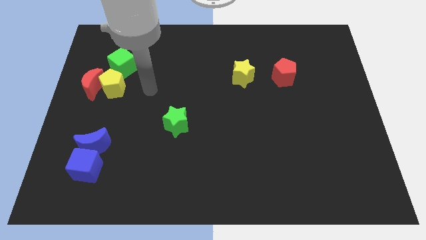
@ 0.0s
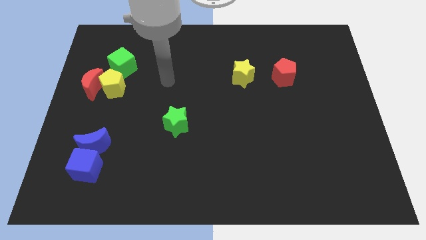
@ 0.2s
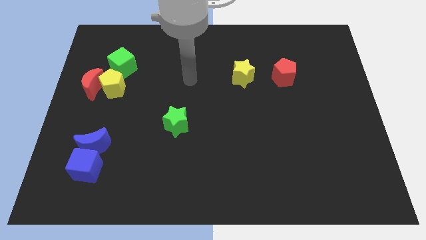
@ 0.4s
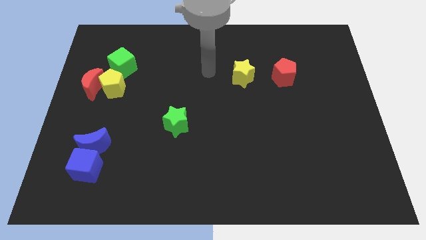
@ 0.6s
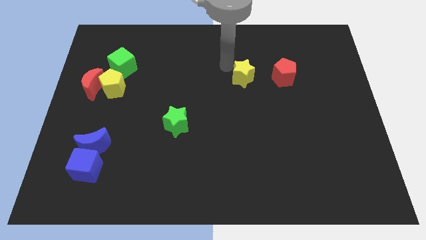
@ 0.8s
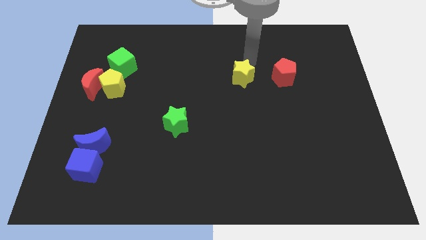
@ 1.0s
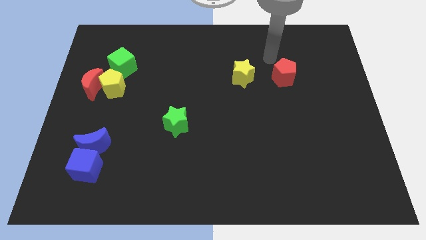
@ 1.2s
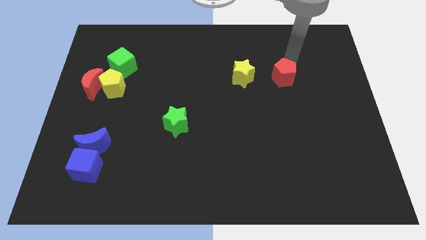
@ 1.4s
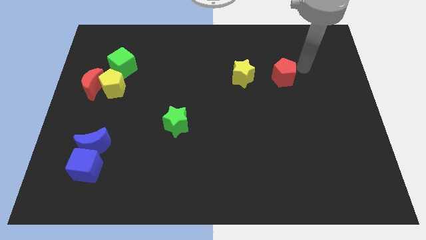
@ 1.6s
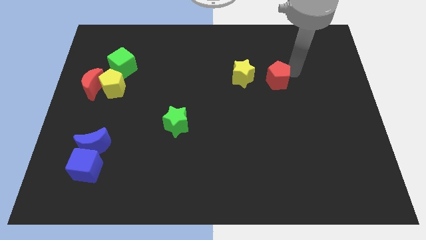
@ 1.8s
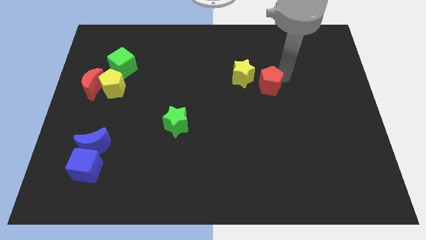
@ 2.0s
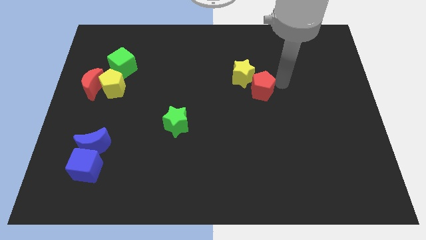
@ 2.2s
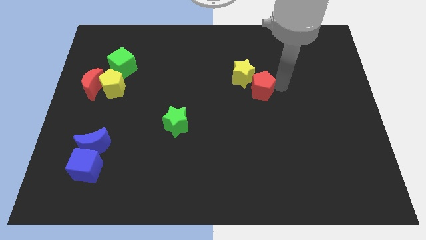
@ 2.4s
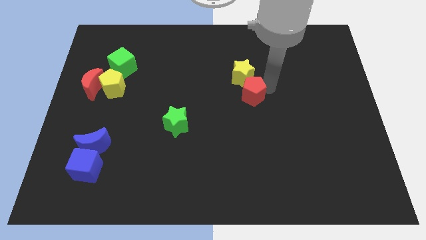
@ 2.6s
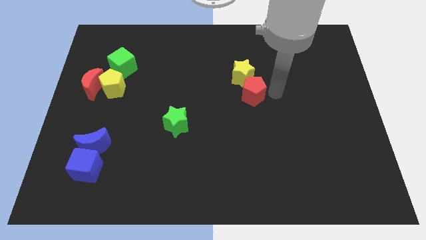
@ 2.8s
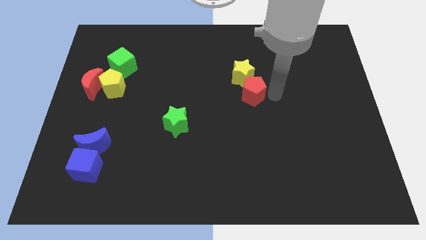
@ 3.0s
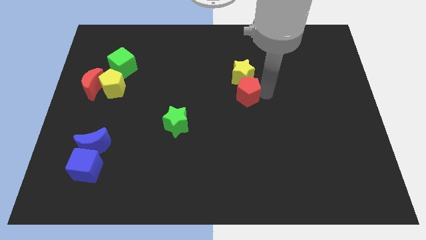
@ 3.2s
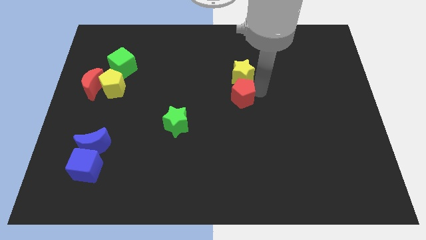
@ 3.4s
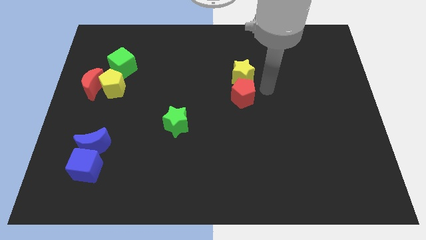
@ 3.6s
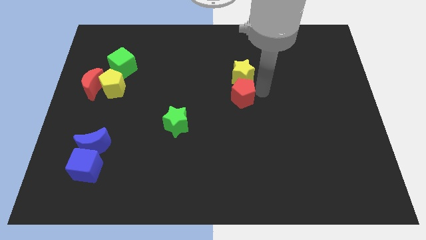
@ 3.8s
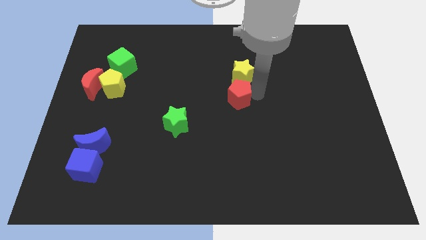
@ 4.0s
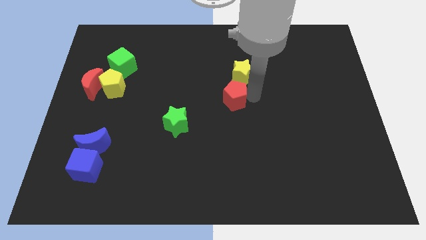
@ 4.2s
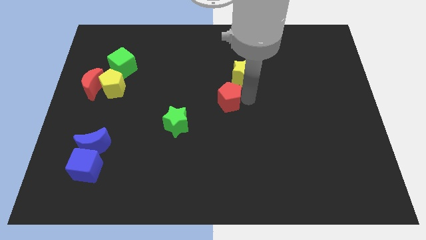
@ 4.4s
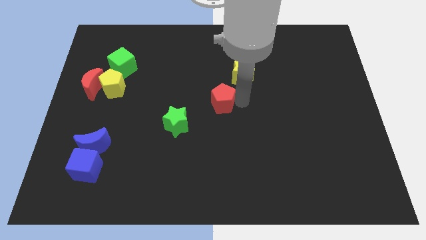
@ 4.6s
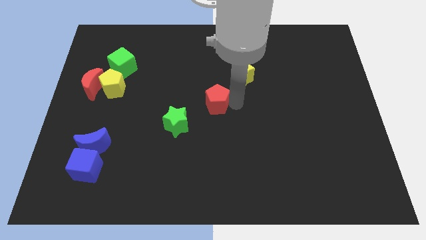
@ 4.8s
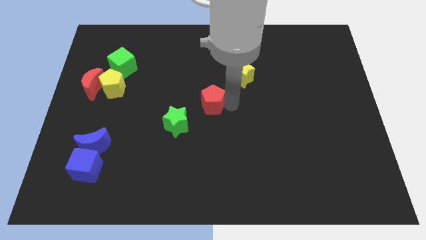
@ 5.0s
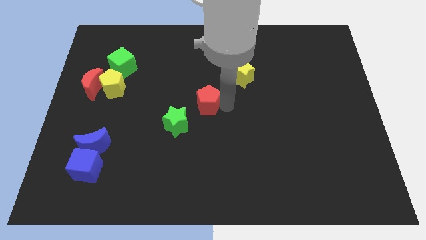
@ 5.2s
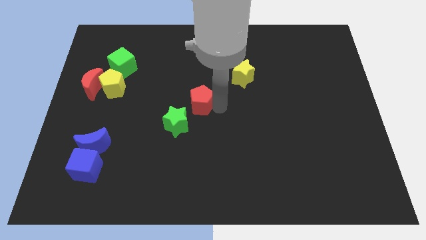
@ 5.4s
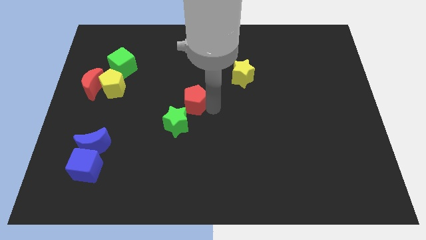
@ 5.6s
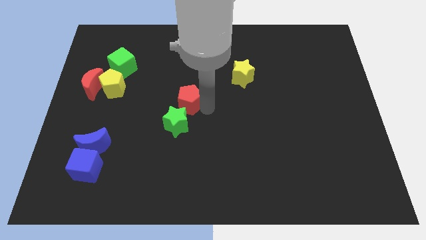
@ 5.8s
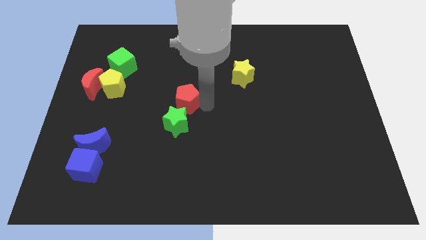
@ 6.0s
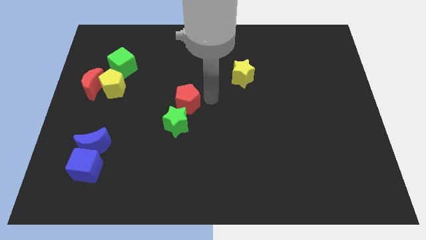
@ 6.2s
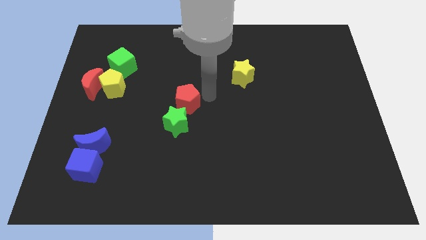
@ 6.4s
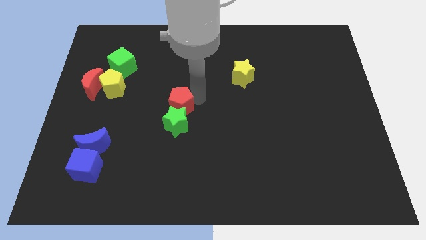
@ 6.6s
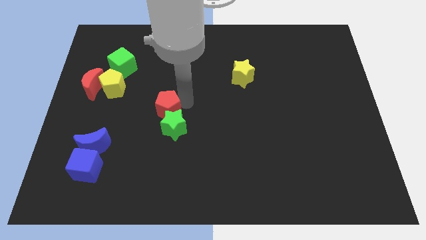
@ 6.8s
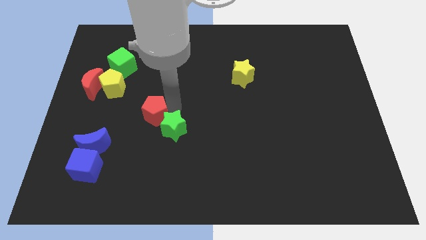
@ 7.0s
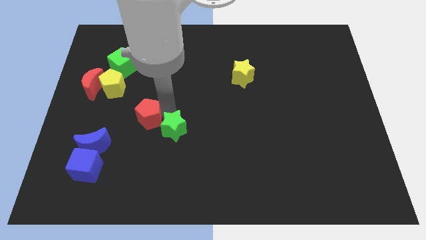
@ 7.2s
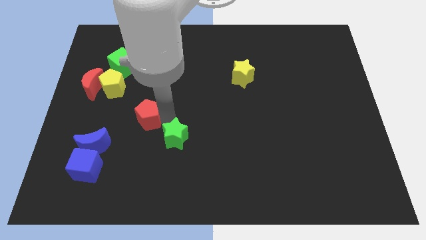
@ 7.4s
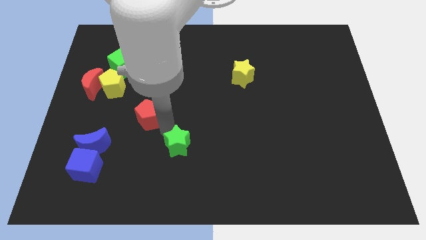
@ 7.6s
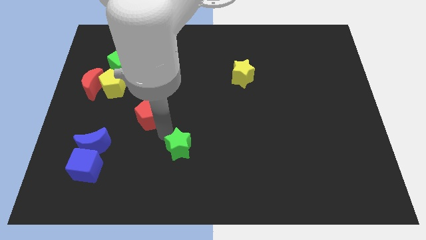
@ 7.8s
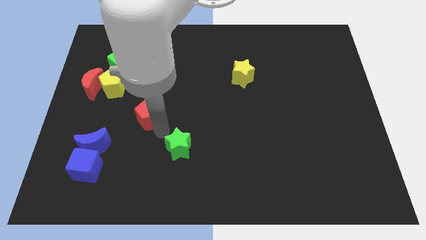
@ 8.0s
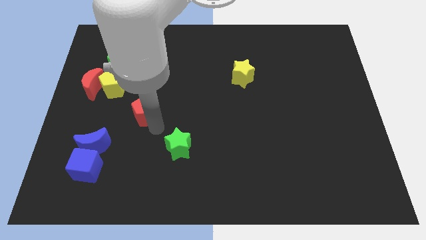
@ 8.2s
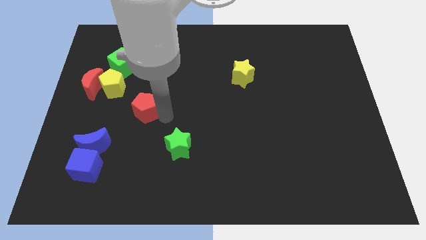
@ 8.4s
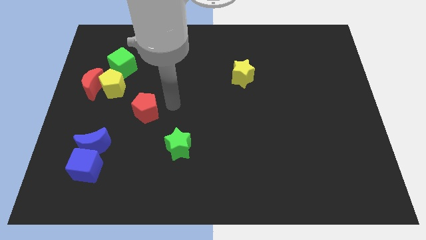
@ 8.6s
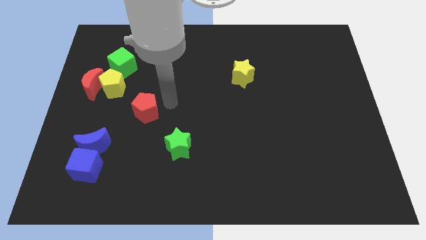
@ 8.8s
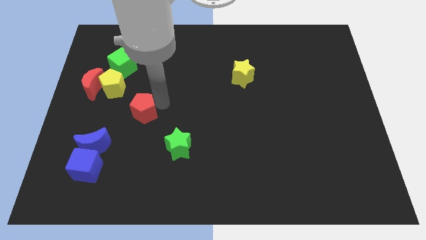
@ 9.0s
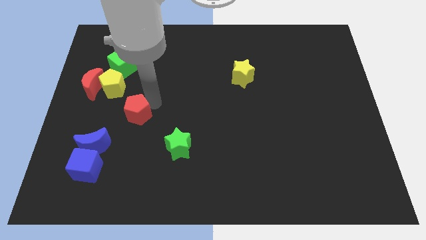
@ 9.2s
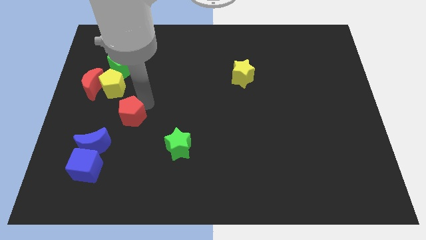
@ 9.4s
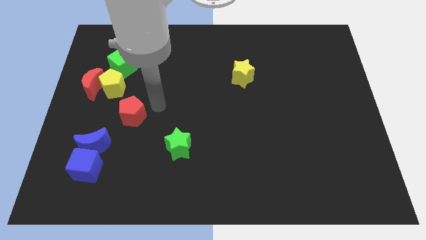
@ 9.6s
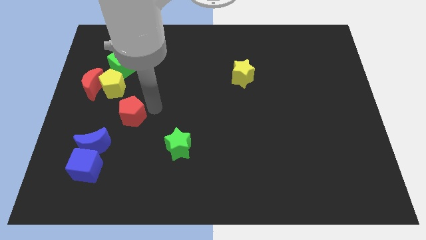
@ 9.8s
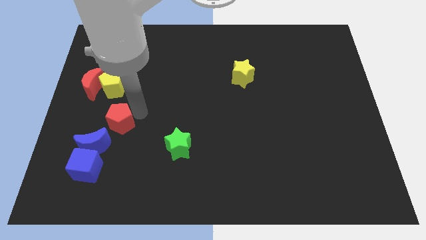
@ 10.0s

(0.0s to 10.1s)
push the red pentagon to the bottom of the yellow pentagon

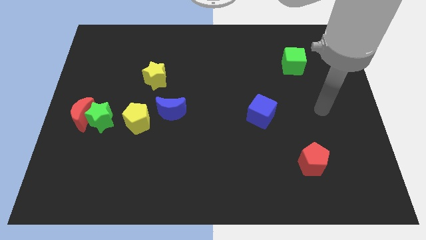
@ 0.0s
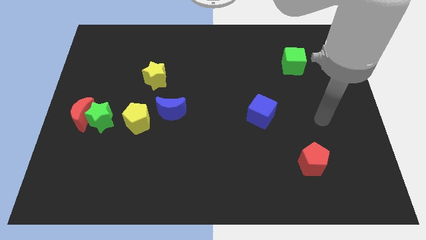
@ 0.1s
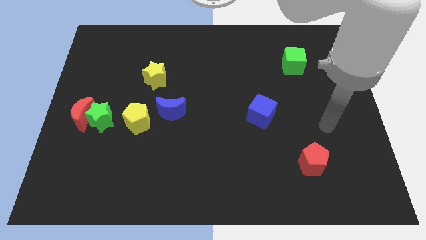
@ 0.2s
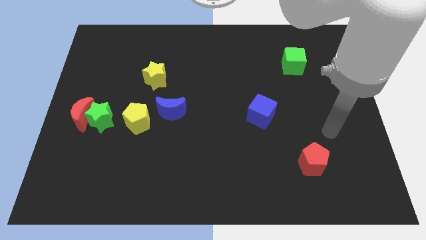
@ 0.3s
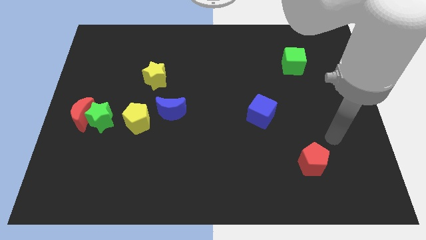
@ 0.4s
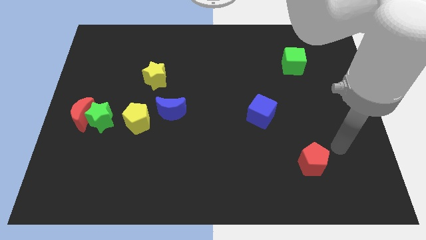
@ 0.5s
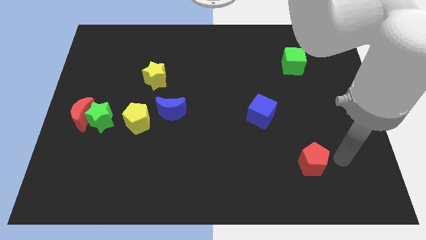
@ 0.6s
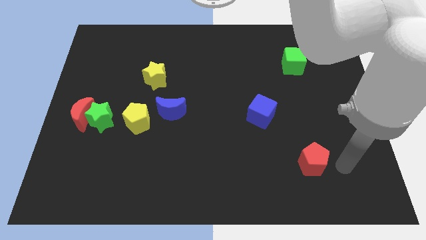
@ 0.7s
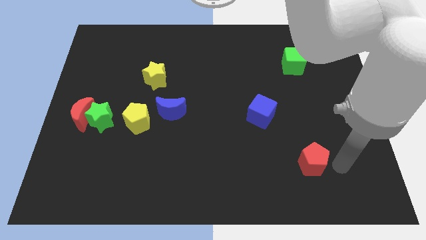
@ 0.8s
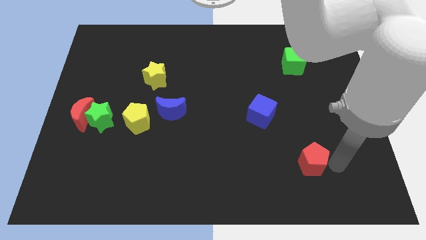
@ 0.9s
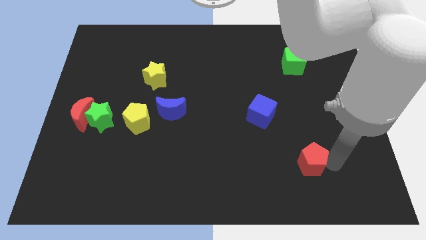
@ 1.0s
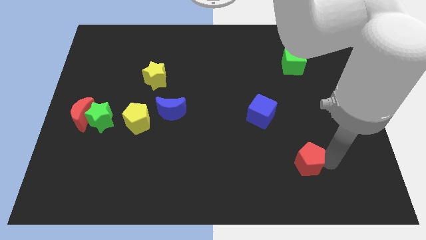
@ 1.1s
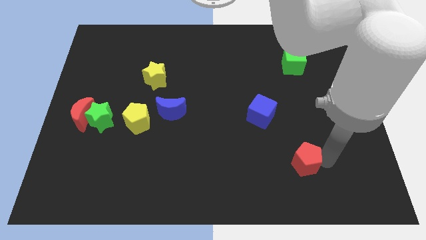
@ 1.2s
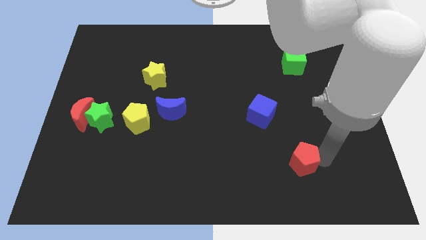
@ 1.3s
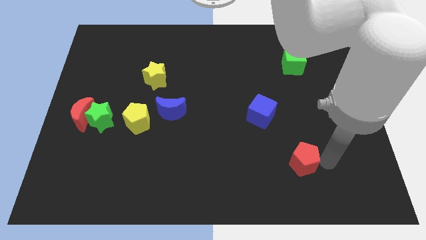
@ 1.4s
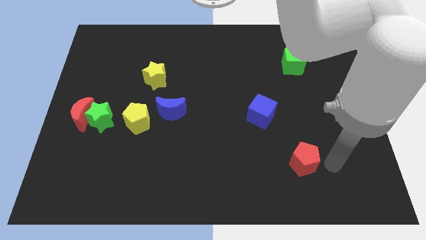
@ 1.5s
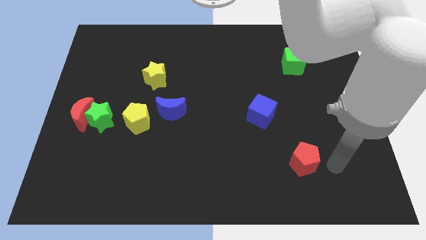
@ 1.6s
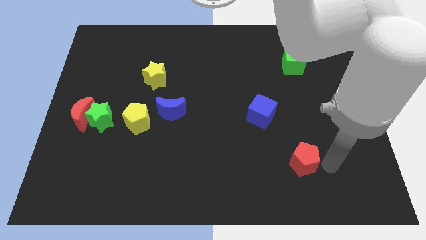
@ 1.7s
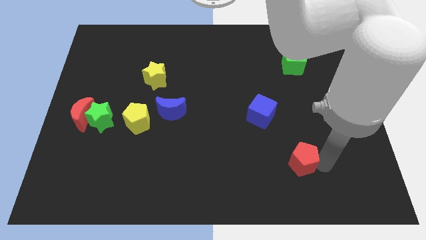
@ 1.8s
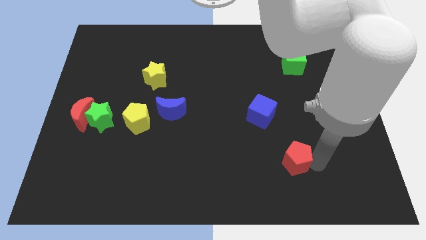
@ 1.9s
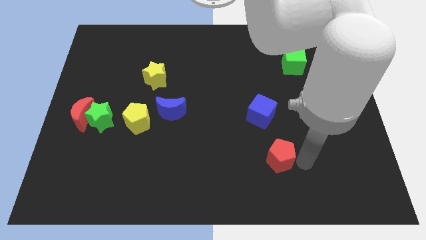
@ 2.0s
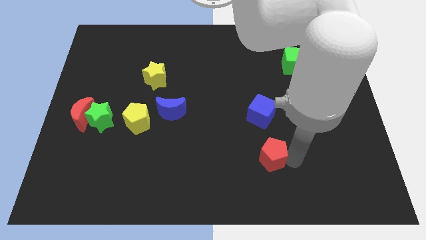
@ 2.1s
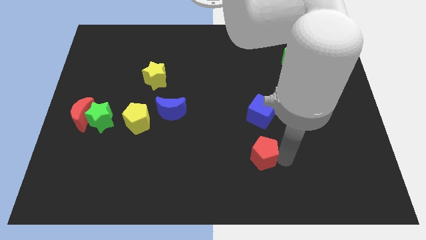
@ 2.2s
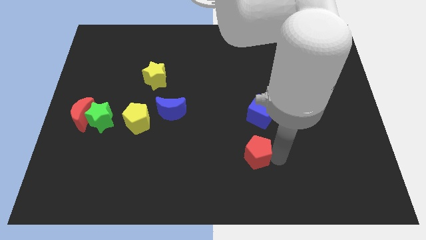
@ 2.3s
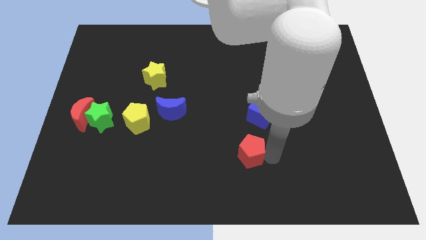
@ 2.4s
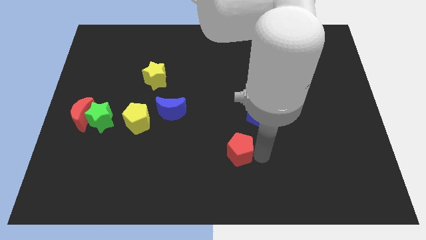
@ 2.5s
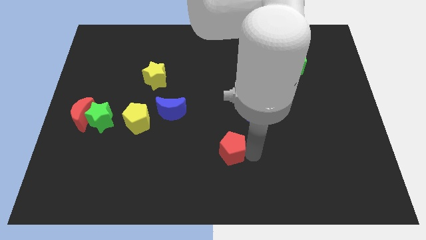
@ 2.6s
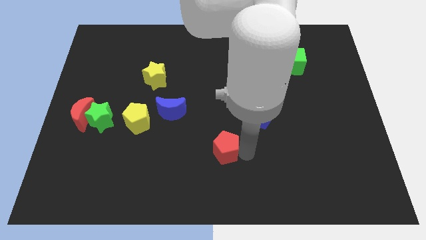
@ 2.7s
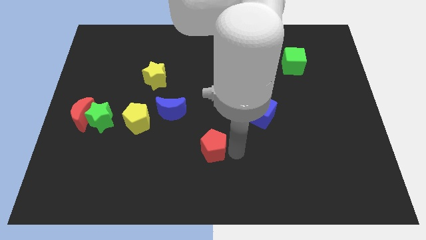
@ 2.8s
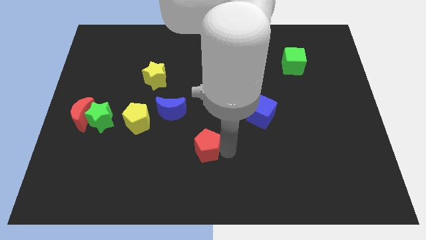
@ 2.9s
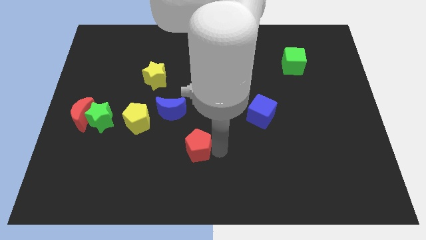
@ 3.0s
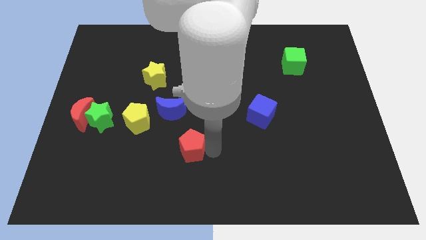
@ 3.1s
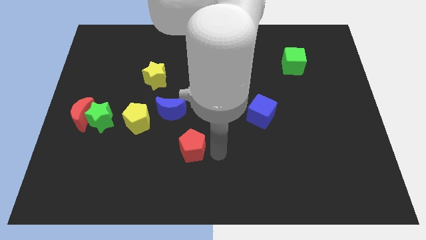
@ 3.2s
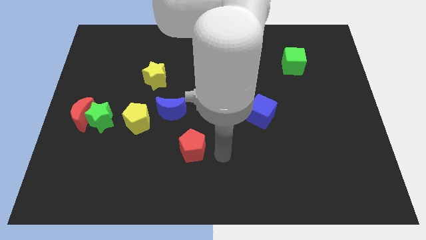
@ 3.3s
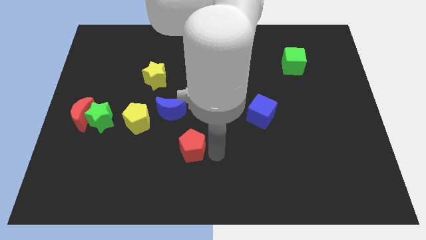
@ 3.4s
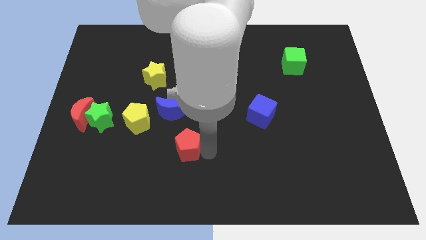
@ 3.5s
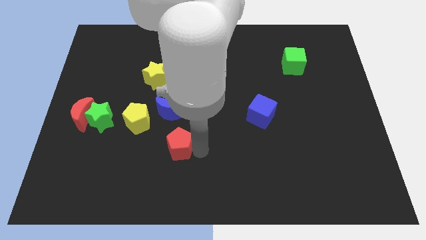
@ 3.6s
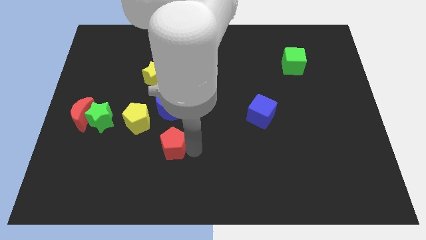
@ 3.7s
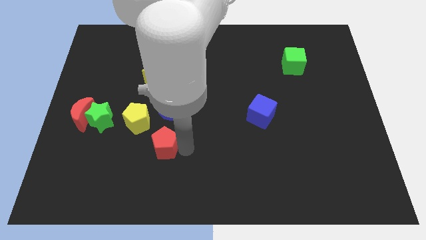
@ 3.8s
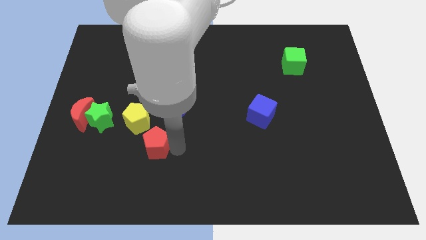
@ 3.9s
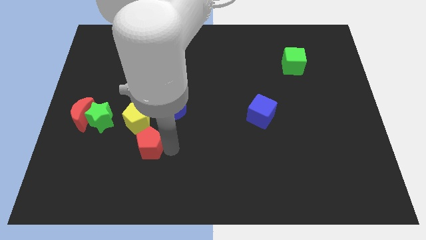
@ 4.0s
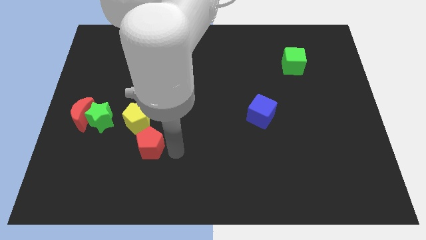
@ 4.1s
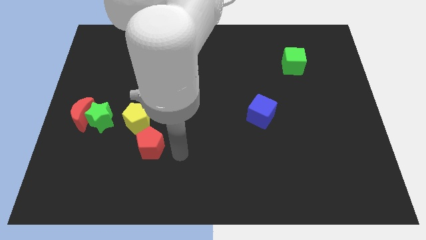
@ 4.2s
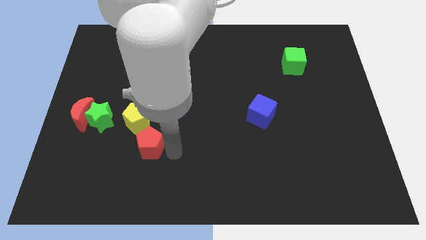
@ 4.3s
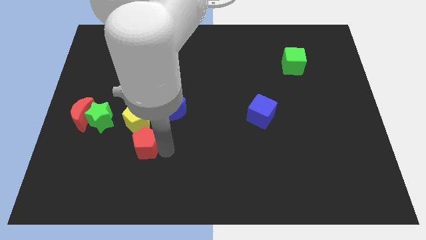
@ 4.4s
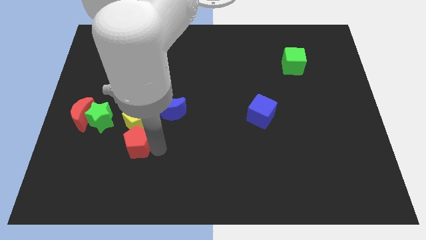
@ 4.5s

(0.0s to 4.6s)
put the red pentagon to the bottom right of the green star
